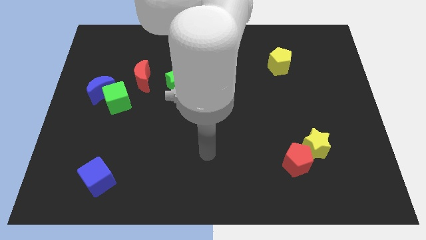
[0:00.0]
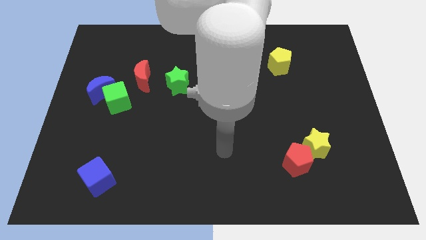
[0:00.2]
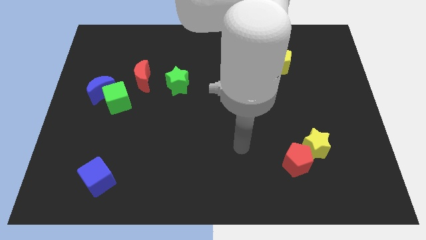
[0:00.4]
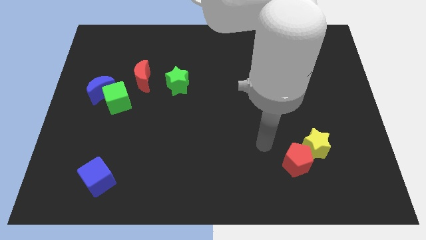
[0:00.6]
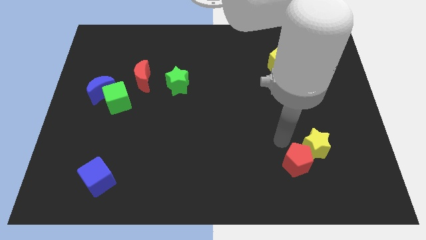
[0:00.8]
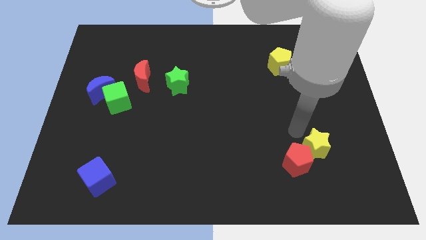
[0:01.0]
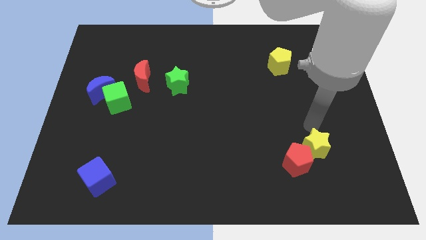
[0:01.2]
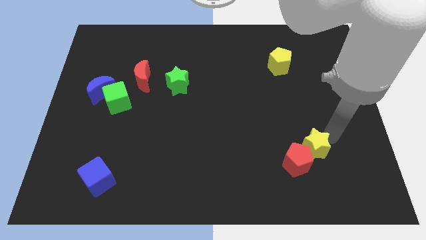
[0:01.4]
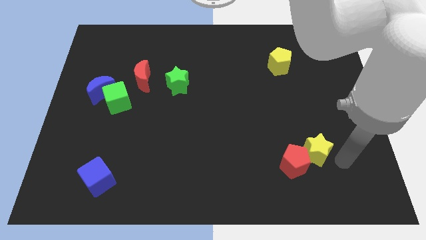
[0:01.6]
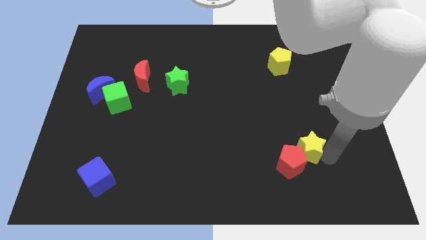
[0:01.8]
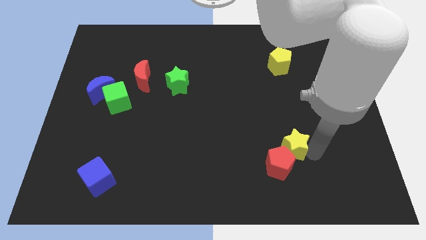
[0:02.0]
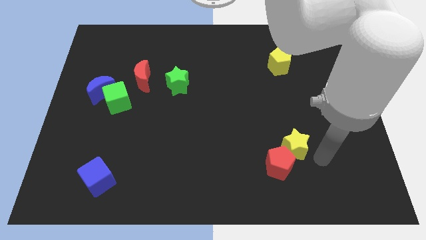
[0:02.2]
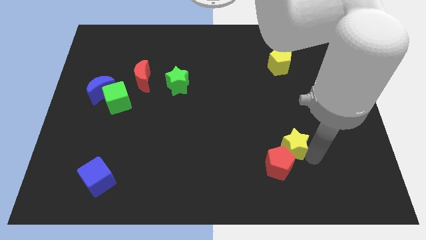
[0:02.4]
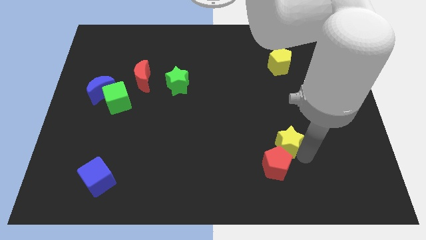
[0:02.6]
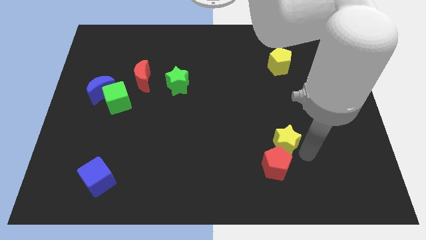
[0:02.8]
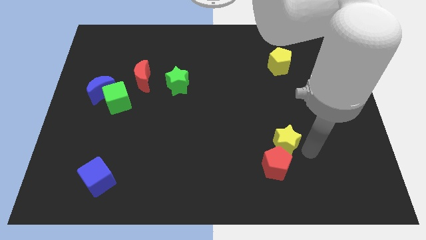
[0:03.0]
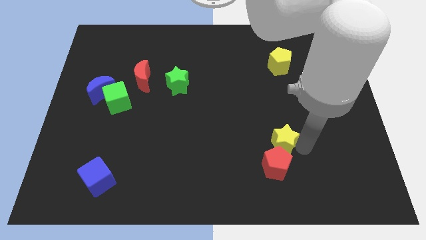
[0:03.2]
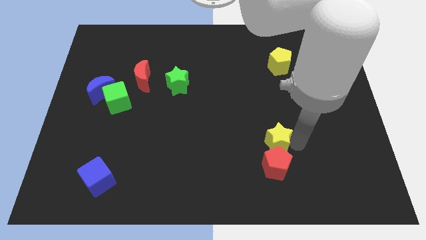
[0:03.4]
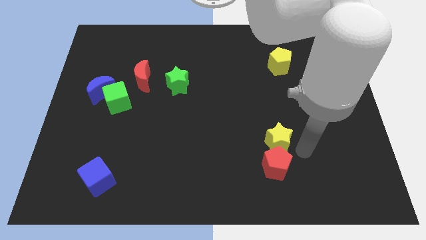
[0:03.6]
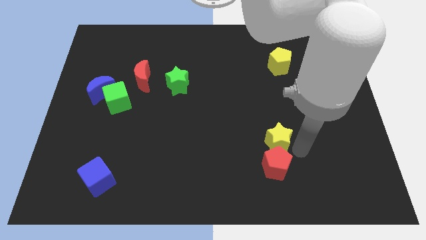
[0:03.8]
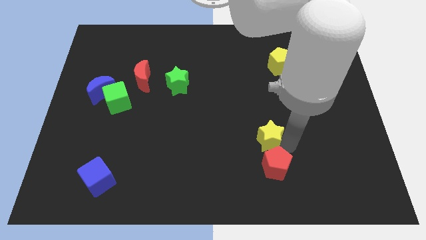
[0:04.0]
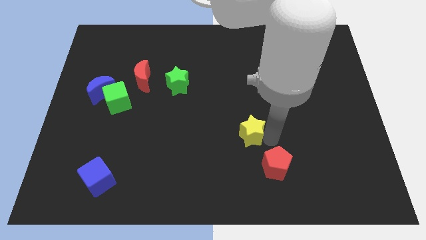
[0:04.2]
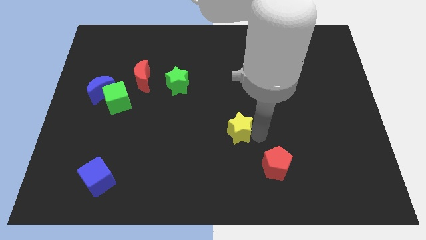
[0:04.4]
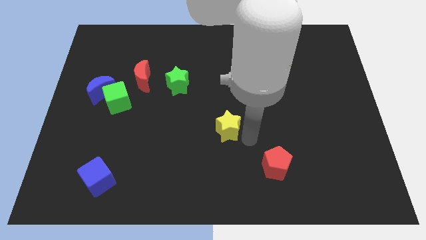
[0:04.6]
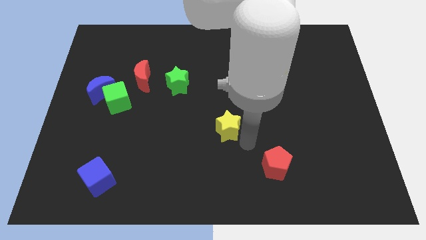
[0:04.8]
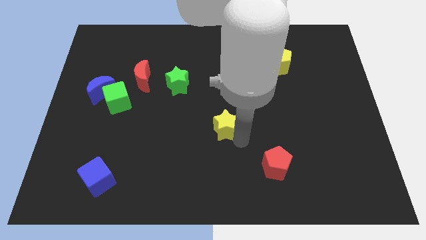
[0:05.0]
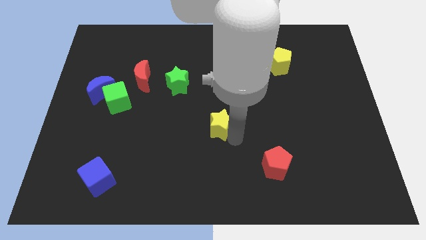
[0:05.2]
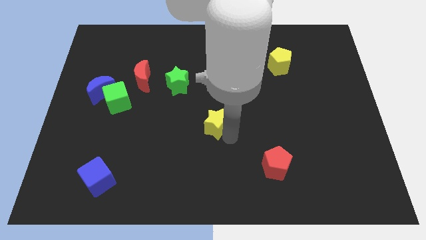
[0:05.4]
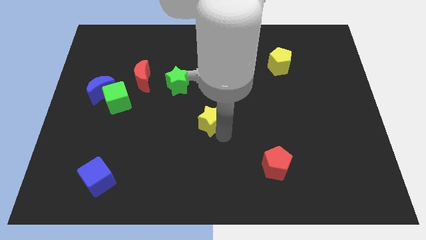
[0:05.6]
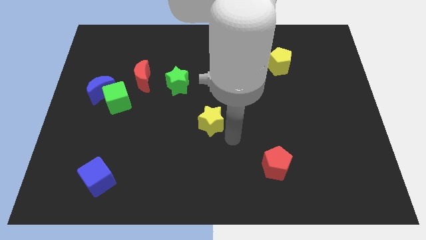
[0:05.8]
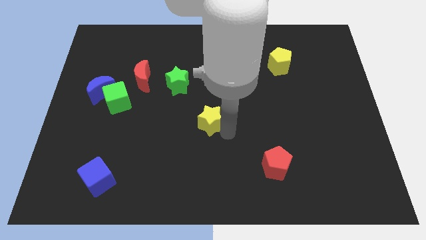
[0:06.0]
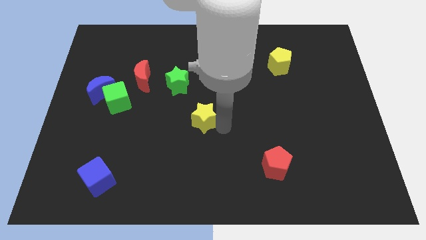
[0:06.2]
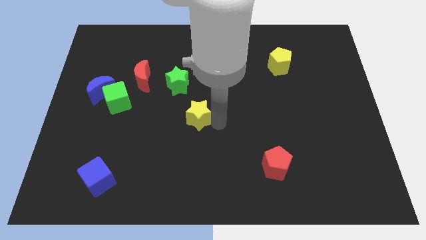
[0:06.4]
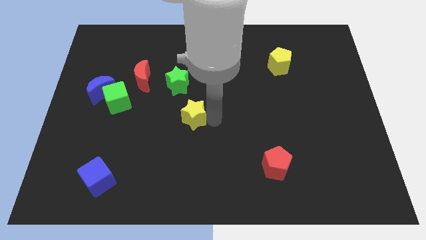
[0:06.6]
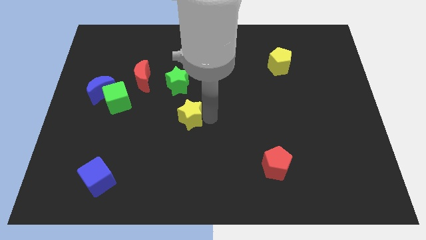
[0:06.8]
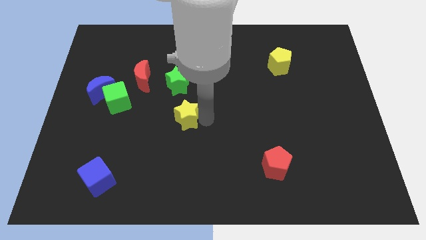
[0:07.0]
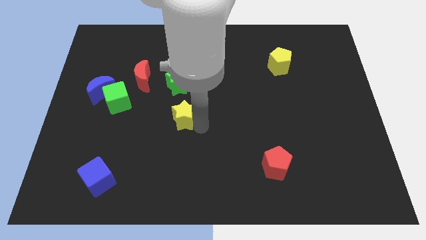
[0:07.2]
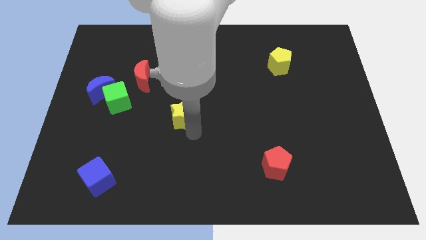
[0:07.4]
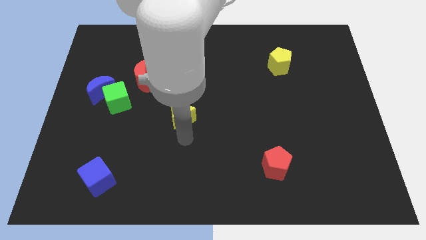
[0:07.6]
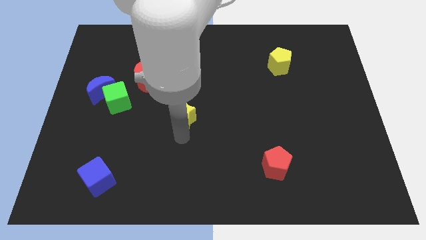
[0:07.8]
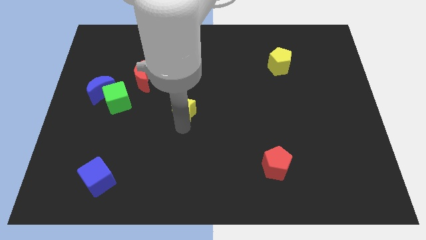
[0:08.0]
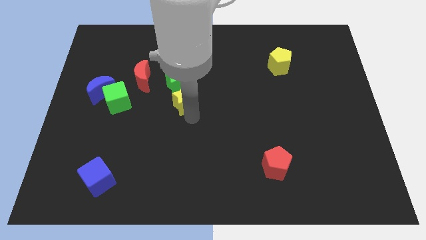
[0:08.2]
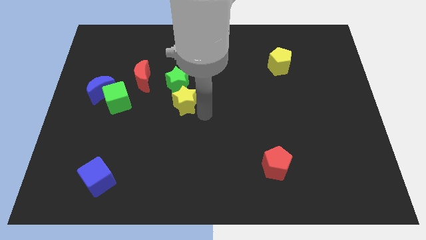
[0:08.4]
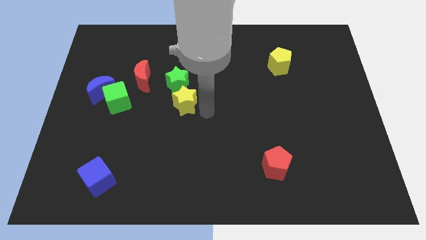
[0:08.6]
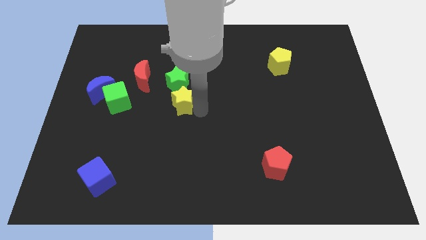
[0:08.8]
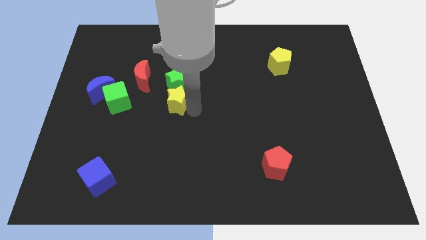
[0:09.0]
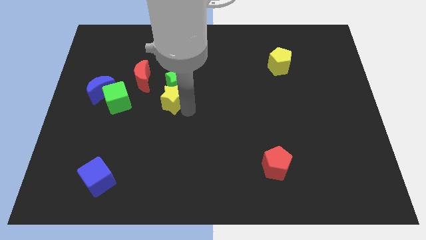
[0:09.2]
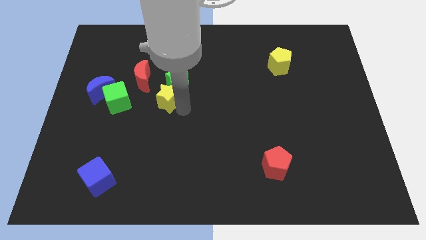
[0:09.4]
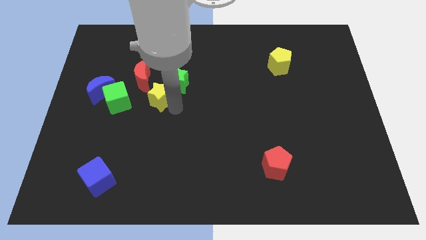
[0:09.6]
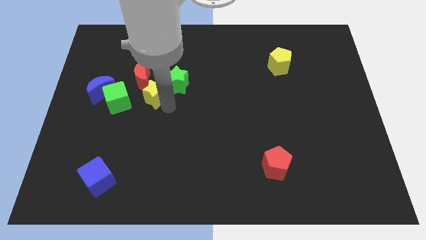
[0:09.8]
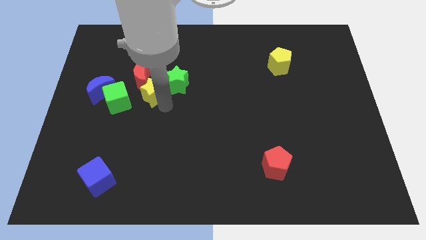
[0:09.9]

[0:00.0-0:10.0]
push the yellow star towards the red moon

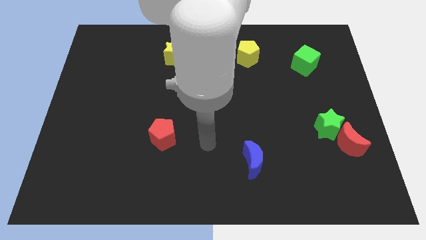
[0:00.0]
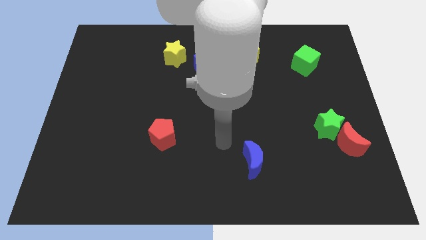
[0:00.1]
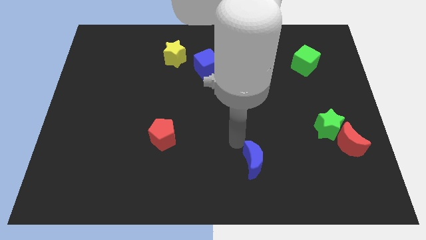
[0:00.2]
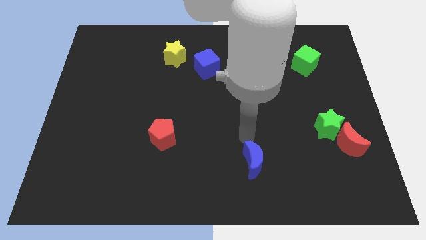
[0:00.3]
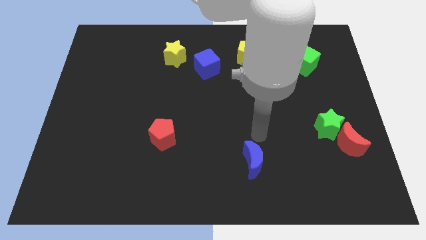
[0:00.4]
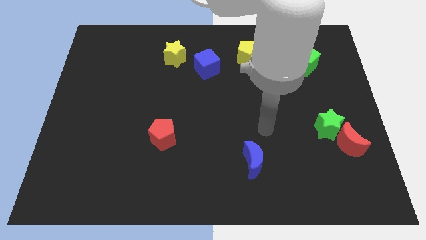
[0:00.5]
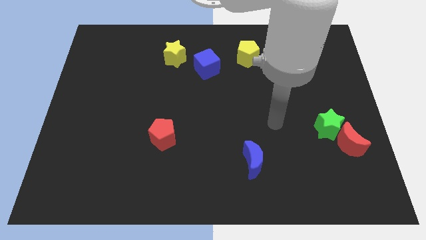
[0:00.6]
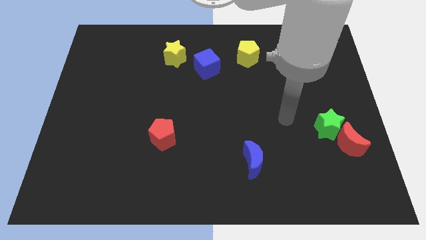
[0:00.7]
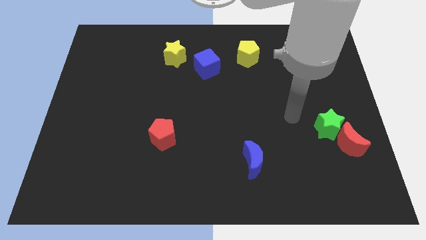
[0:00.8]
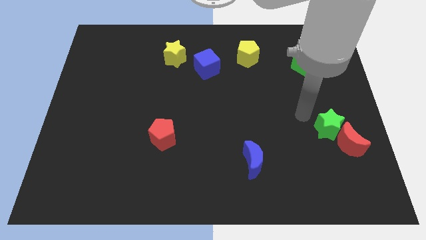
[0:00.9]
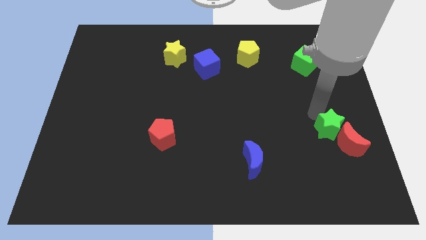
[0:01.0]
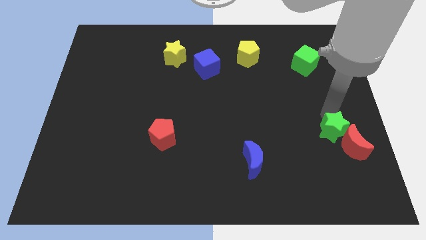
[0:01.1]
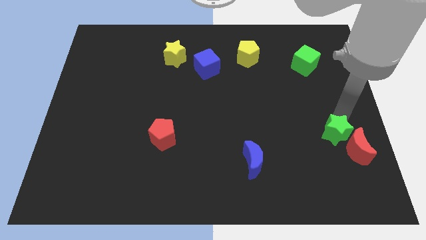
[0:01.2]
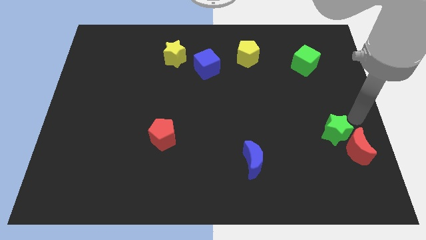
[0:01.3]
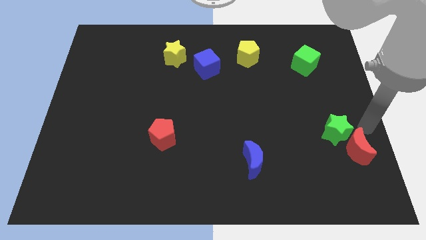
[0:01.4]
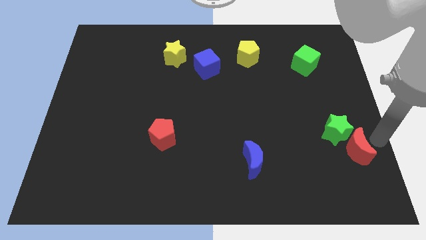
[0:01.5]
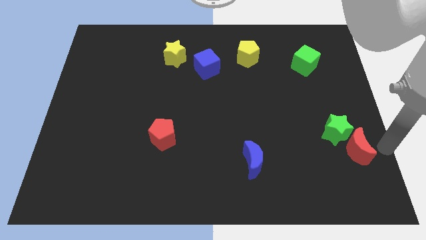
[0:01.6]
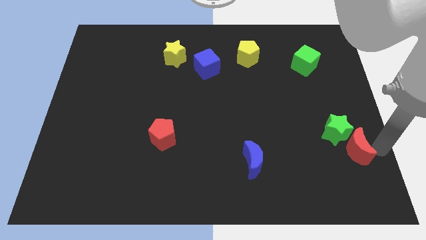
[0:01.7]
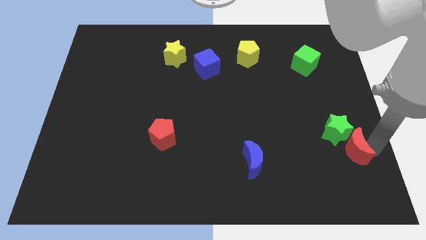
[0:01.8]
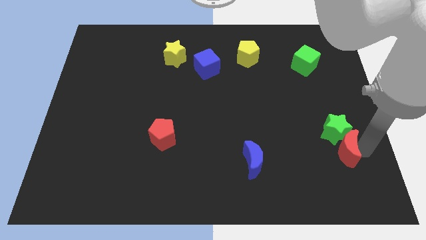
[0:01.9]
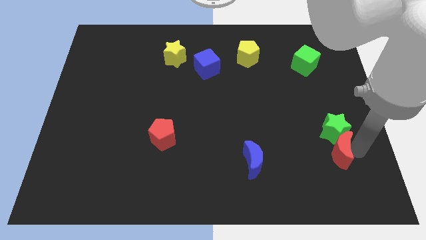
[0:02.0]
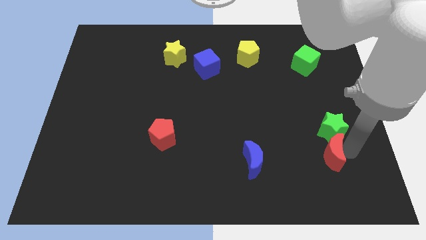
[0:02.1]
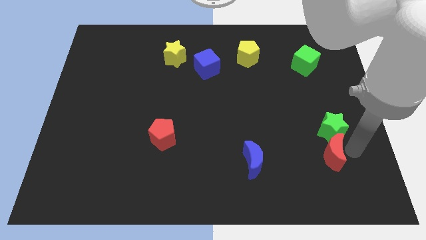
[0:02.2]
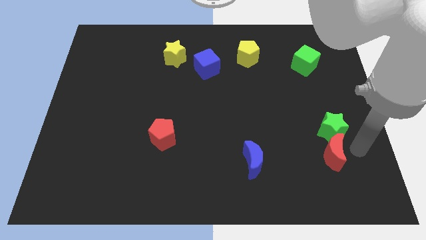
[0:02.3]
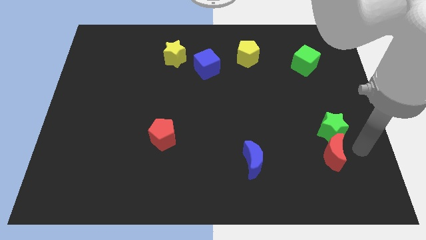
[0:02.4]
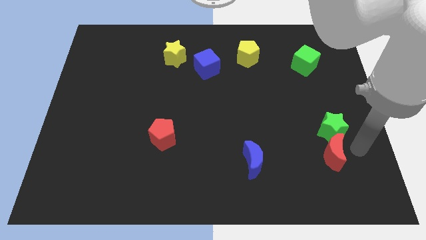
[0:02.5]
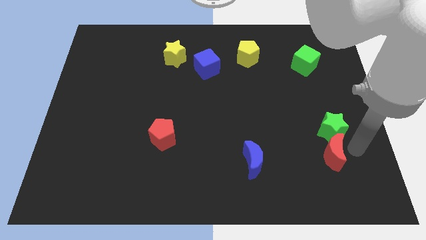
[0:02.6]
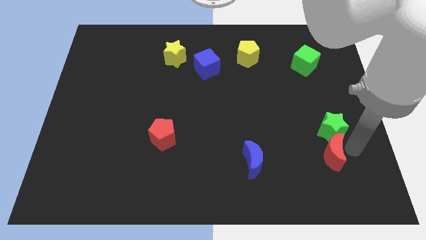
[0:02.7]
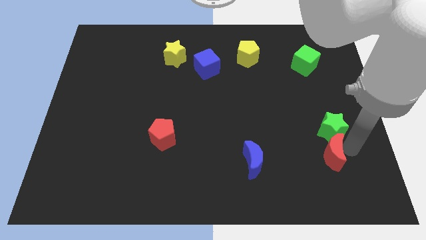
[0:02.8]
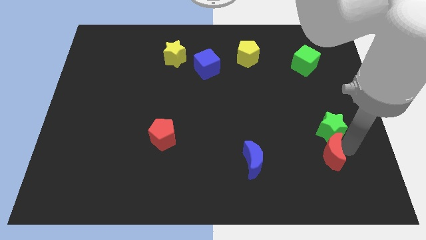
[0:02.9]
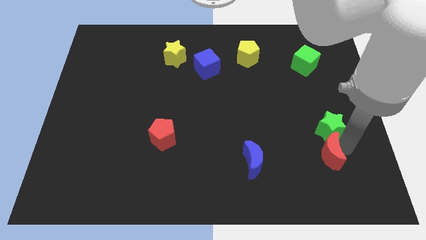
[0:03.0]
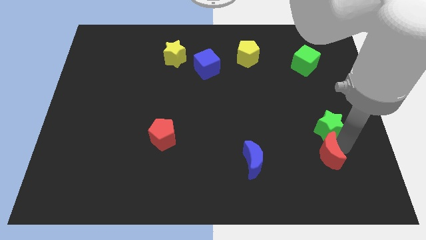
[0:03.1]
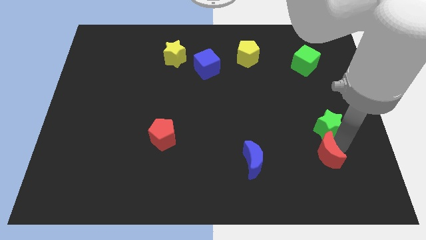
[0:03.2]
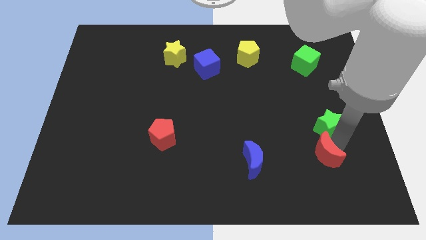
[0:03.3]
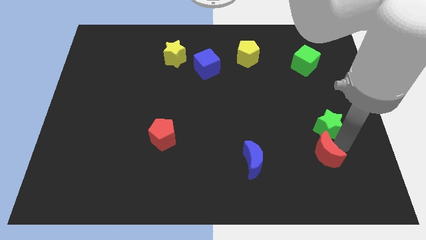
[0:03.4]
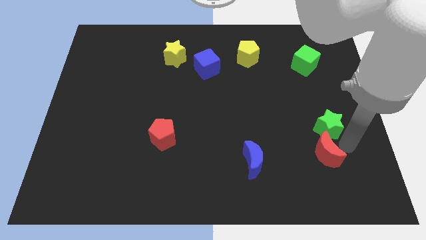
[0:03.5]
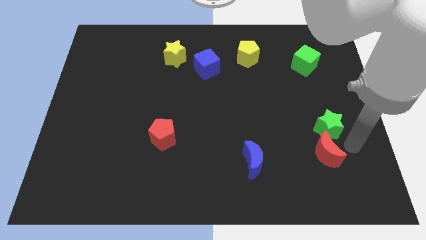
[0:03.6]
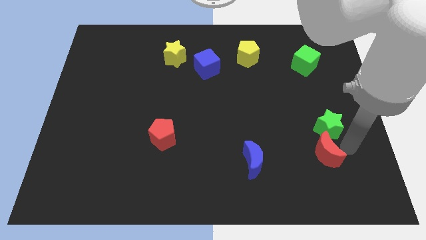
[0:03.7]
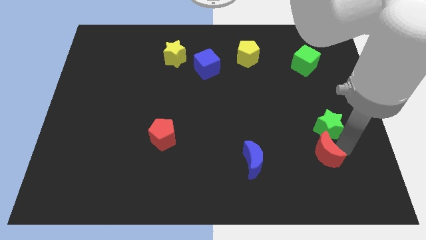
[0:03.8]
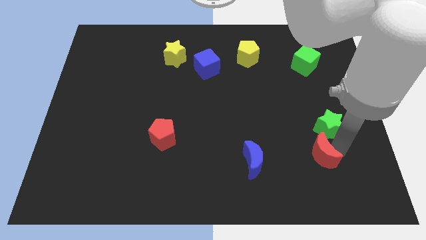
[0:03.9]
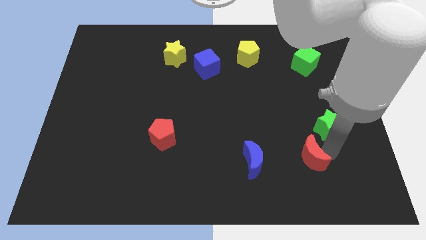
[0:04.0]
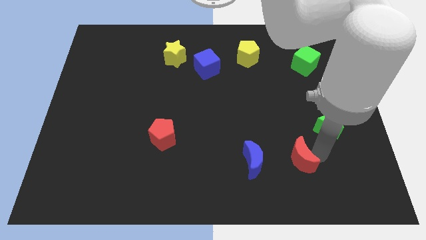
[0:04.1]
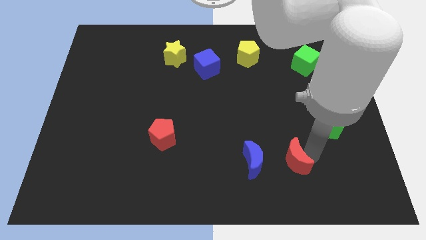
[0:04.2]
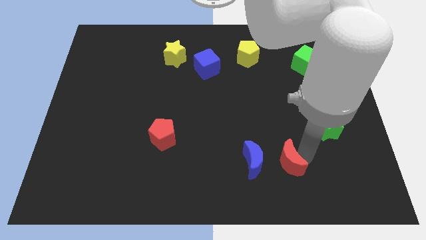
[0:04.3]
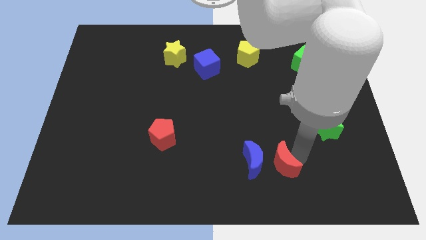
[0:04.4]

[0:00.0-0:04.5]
slide the red moon towards the blue moon
